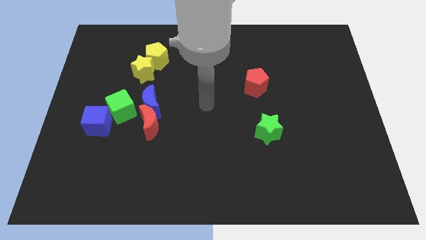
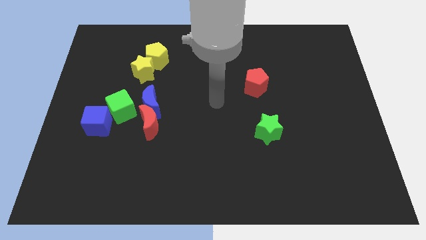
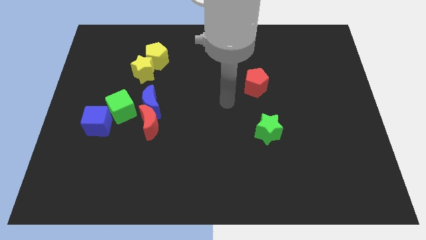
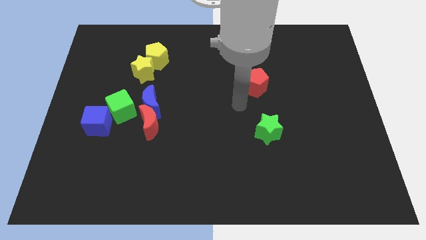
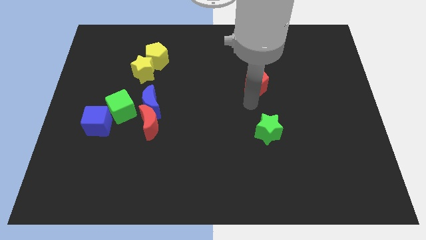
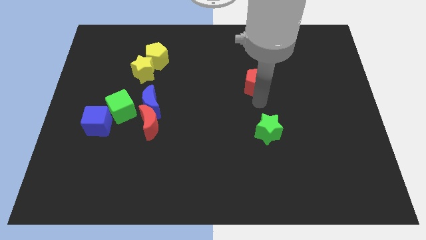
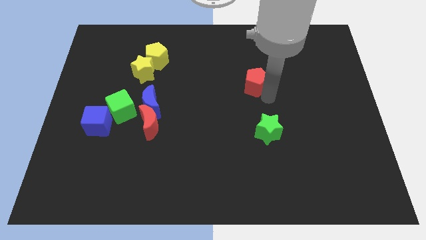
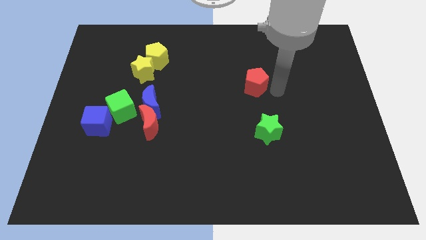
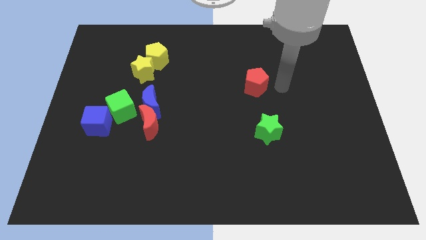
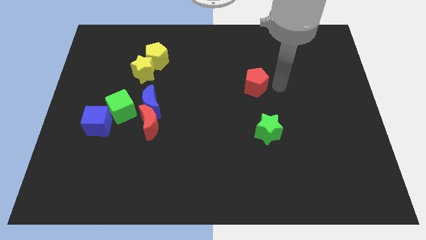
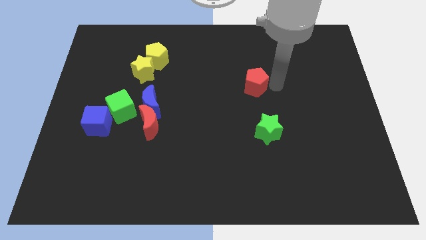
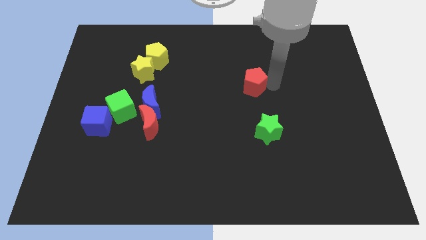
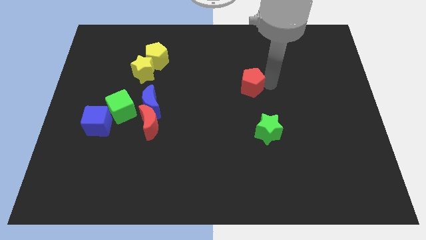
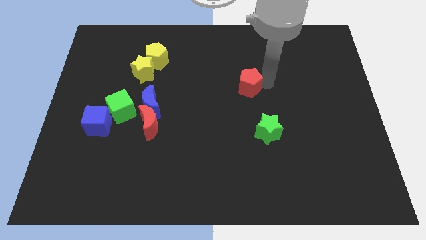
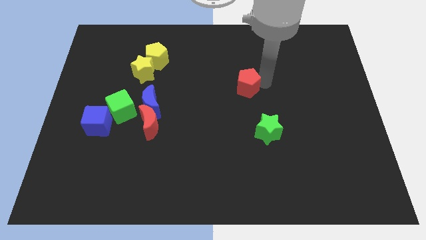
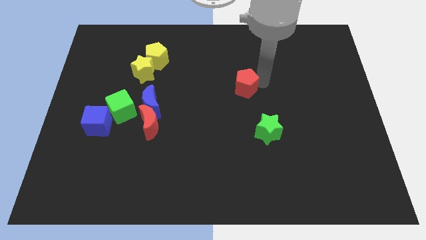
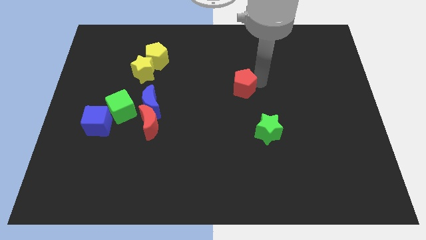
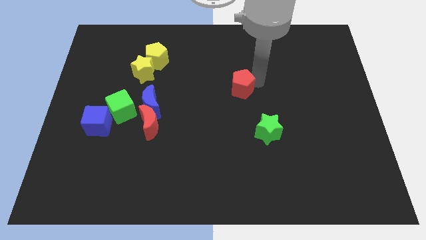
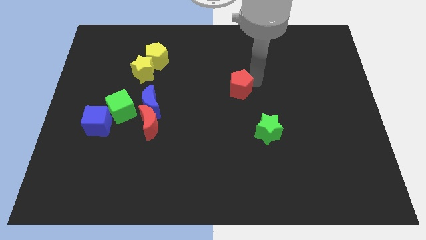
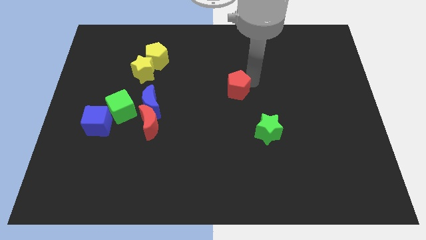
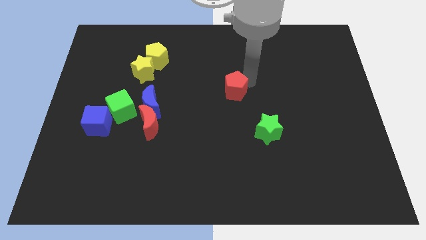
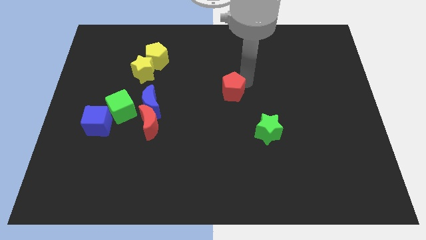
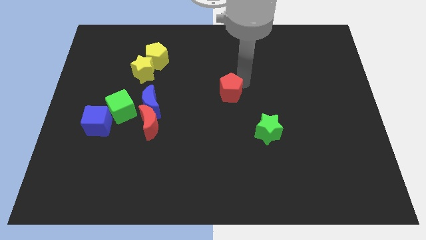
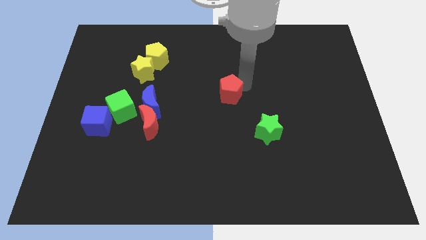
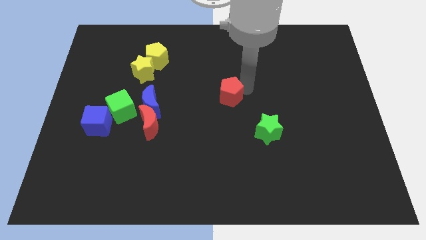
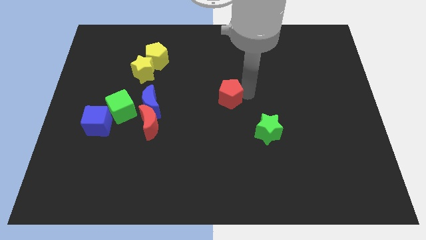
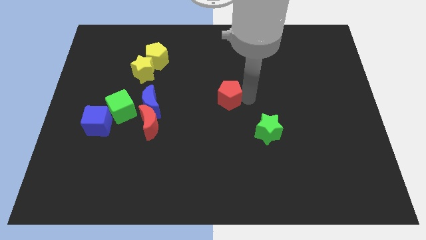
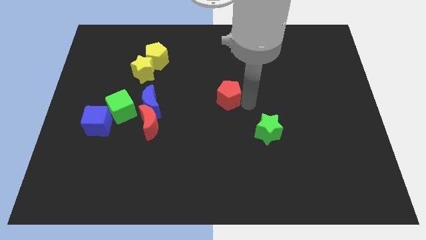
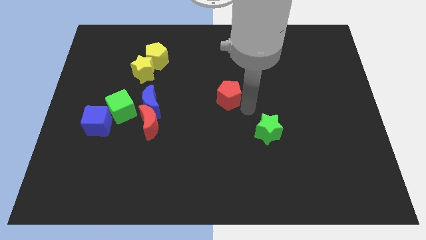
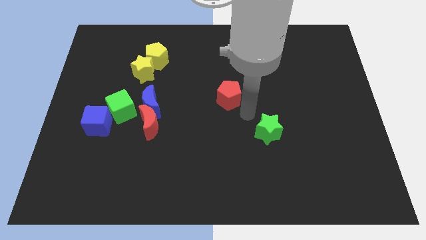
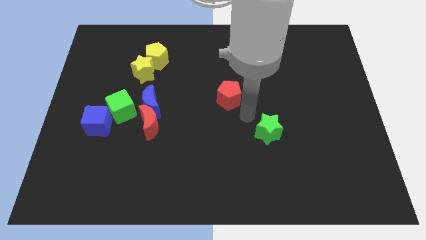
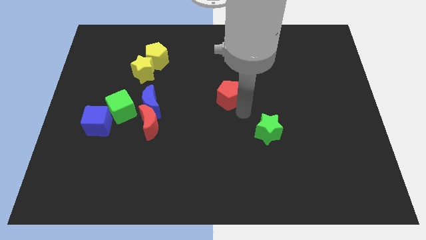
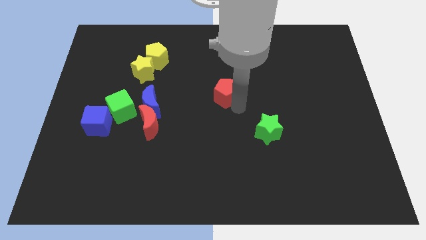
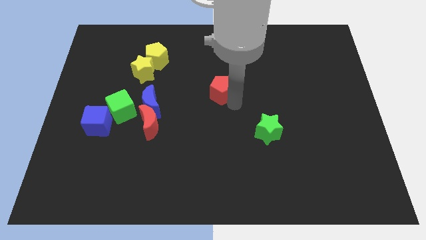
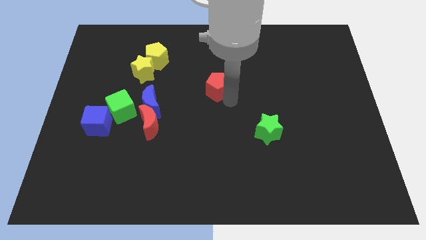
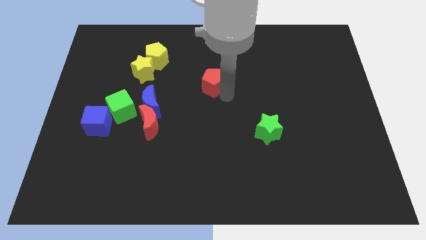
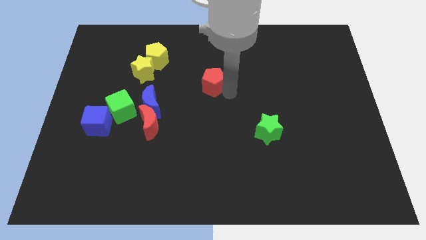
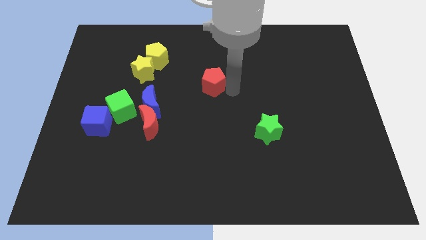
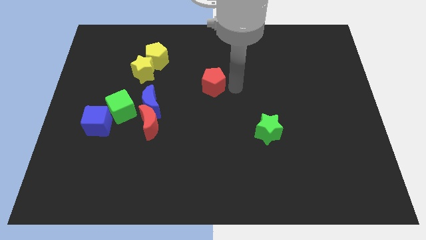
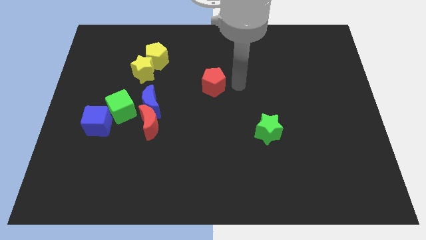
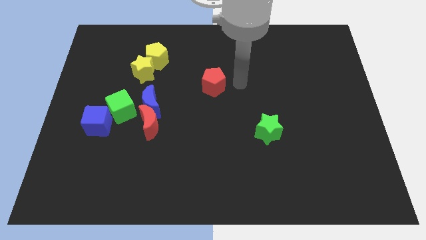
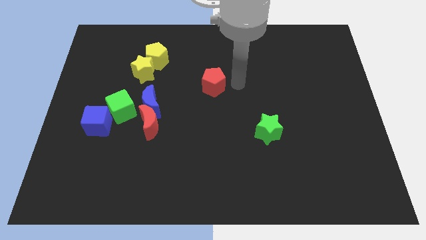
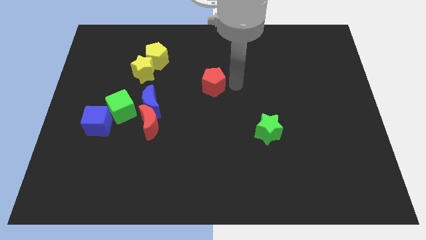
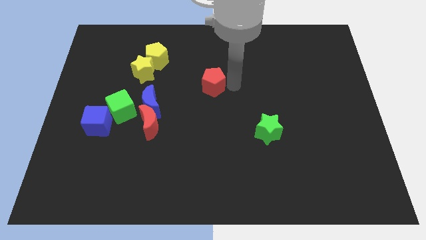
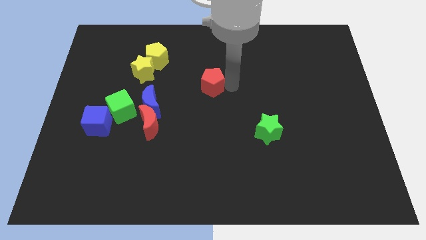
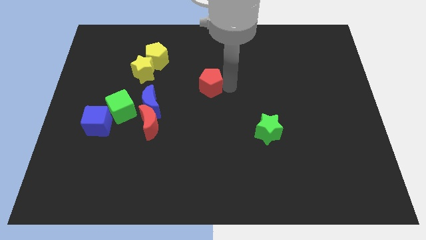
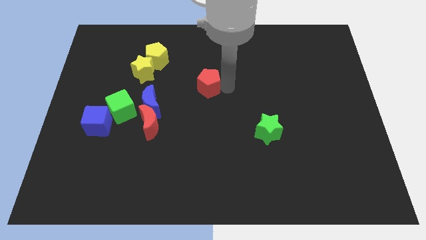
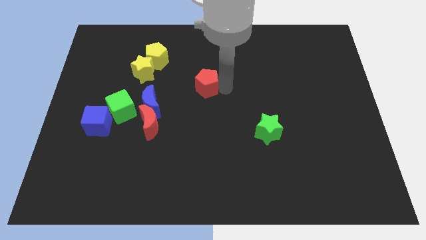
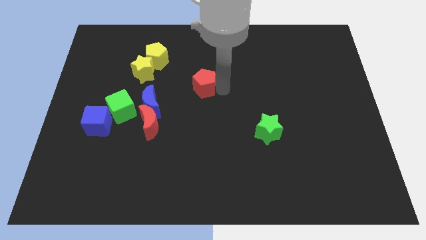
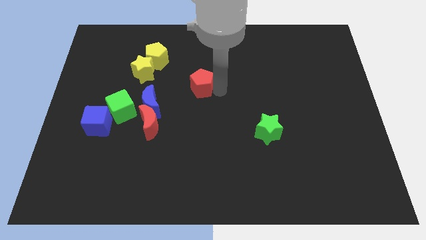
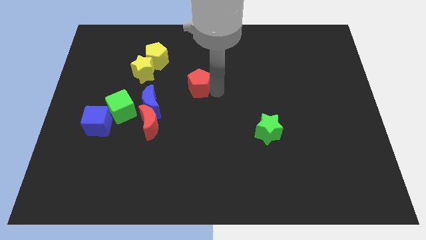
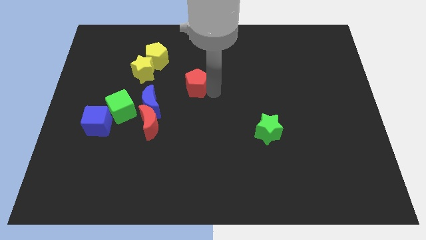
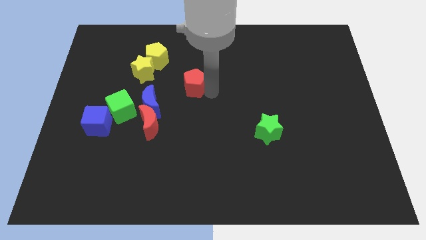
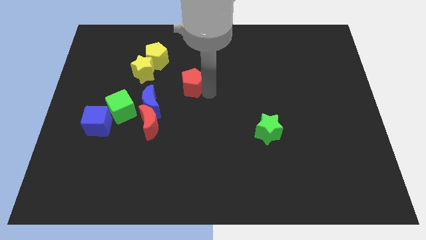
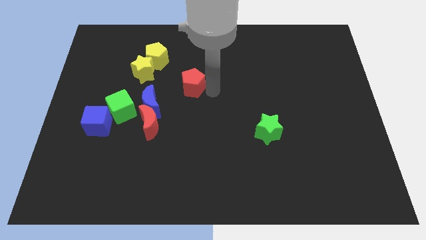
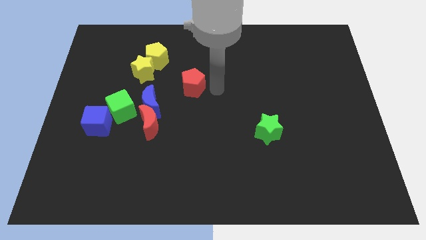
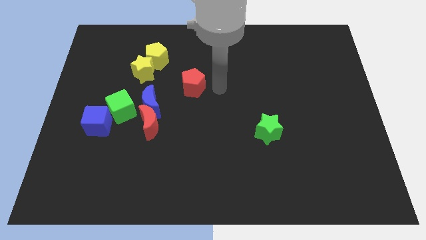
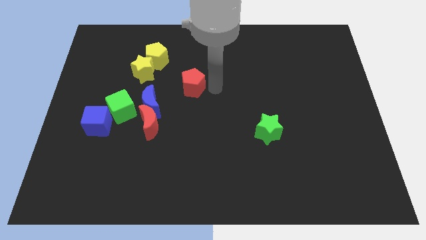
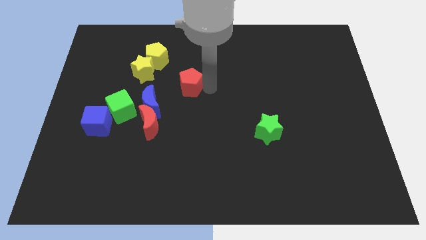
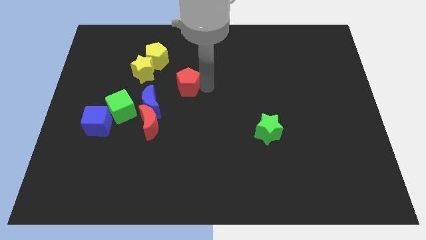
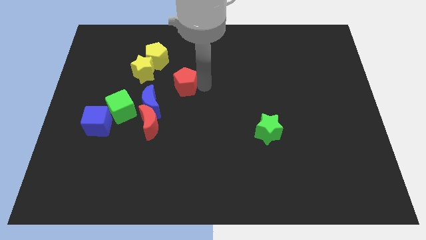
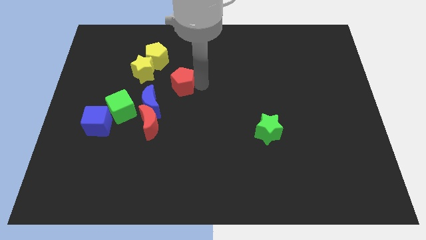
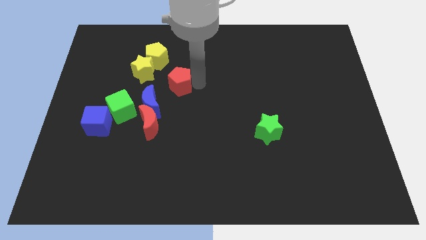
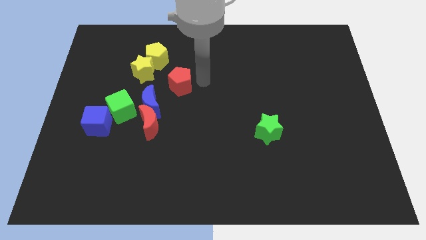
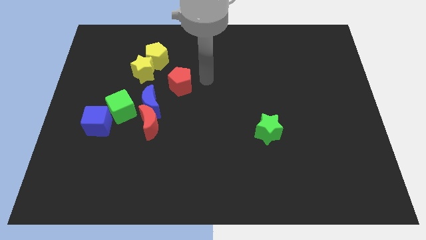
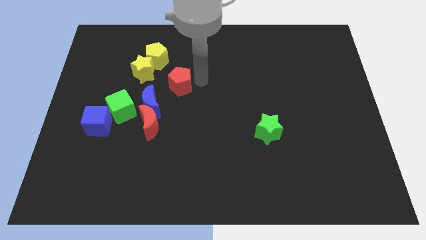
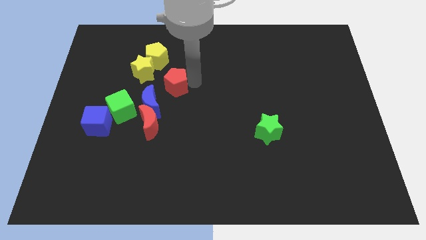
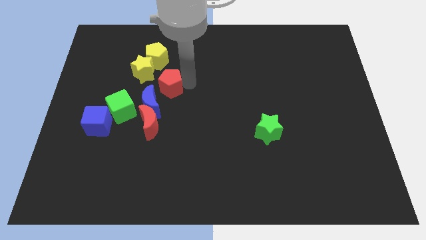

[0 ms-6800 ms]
move the red pentagon to the left

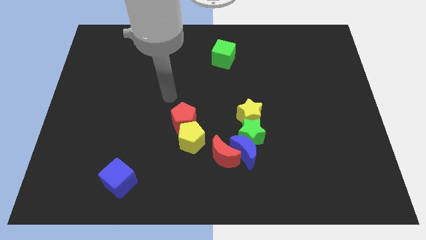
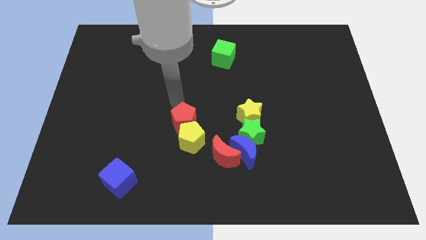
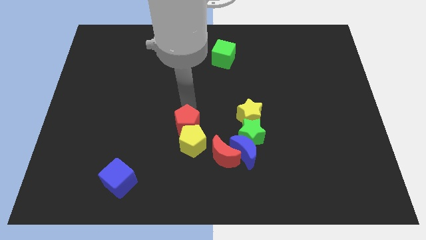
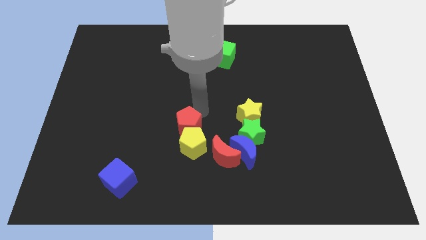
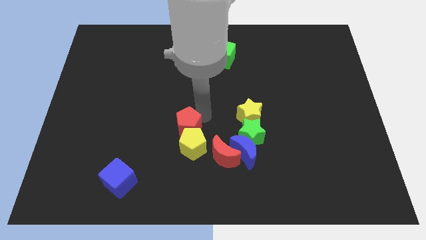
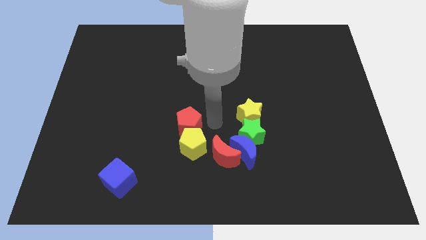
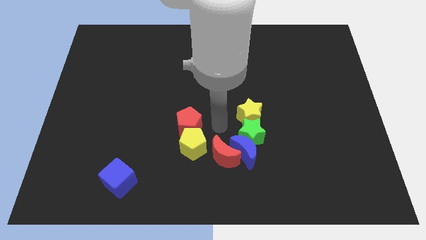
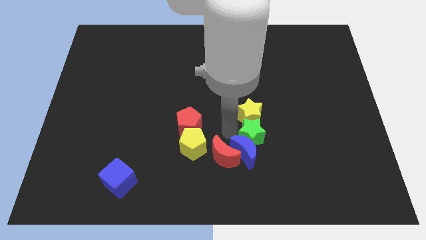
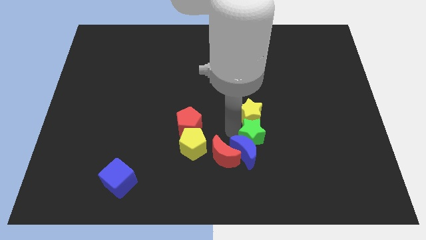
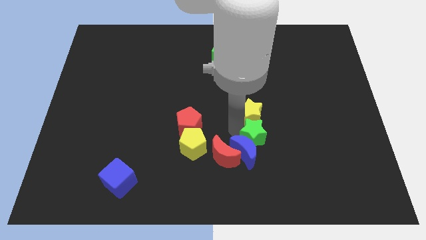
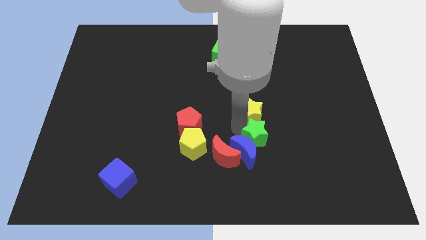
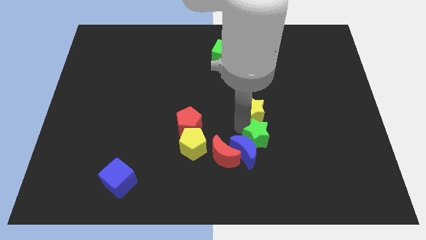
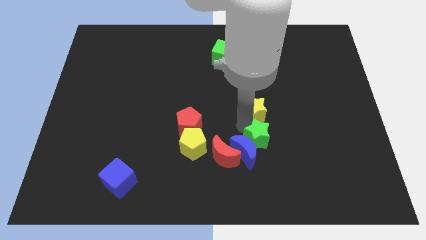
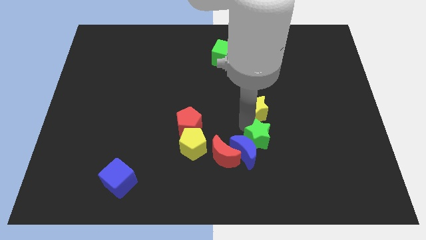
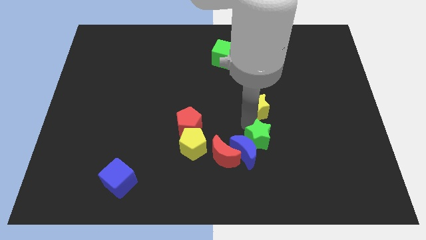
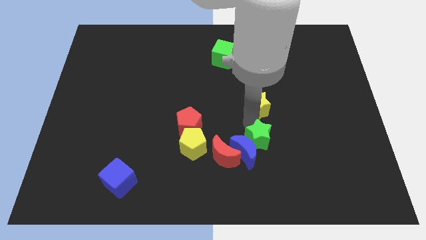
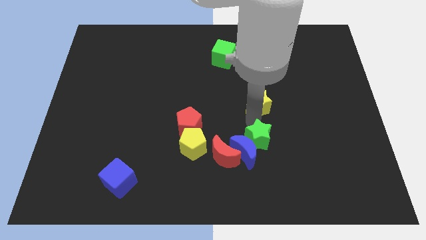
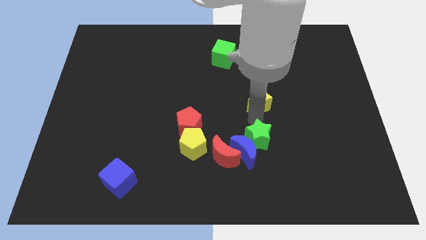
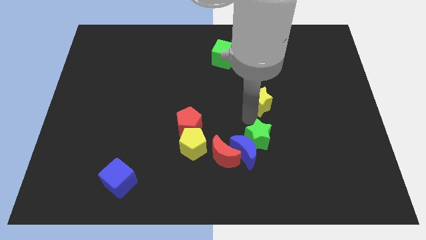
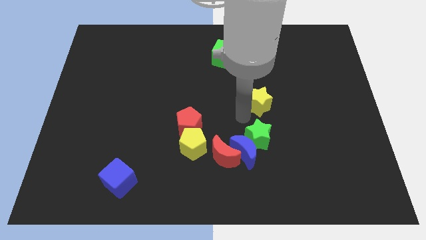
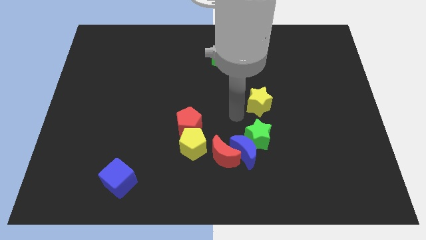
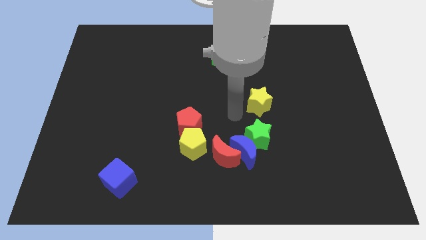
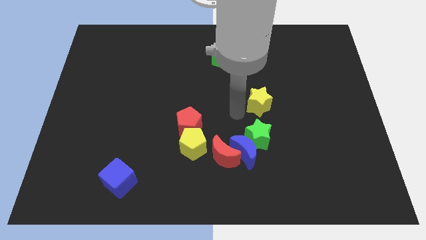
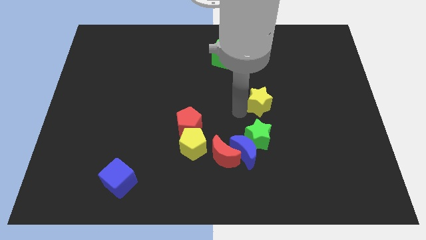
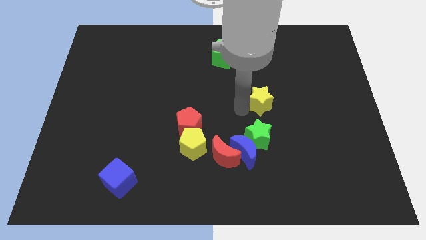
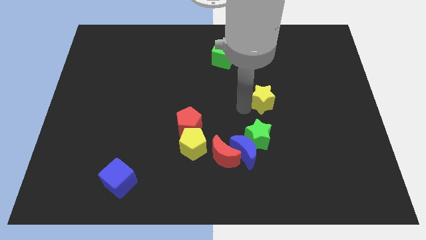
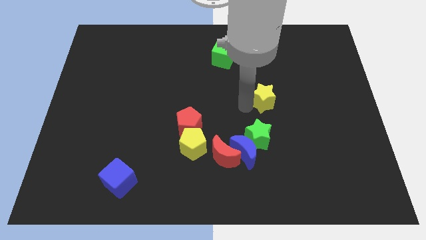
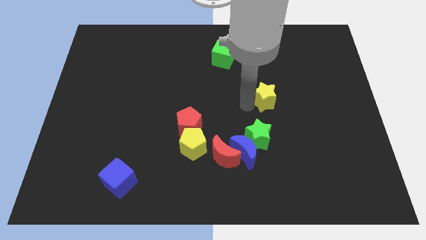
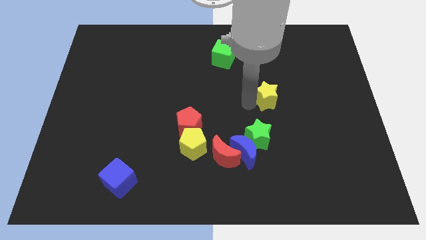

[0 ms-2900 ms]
push the yellow star upwards and right diagonally slightly
